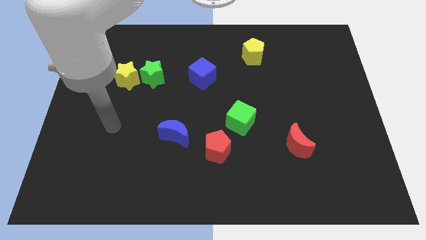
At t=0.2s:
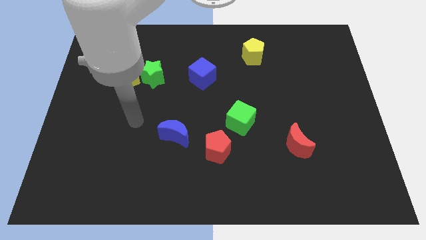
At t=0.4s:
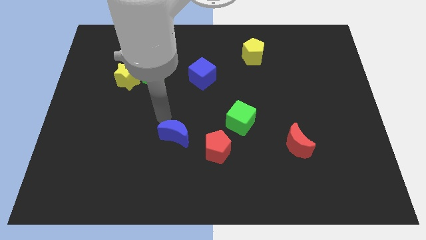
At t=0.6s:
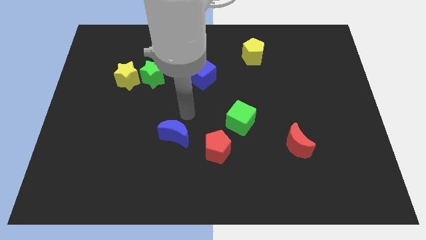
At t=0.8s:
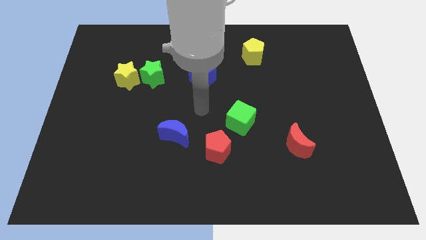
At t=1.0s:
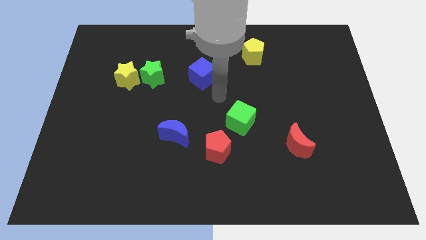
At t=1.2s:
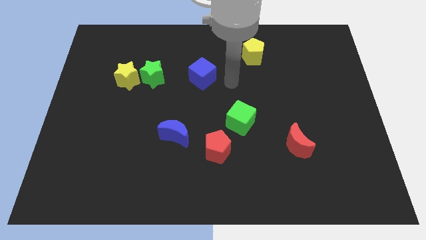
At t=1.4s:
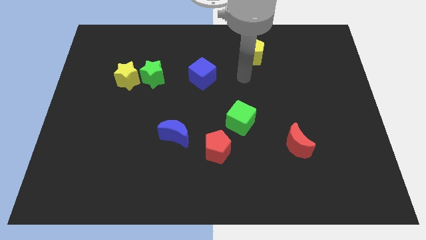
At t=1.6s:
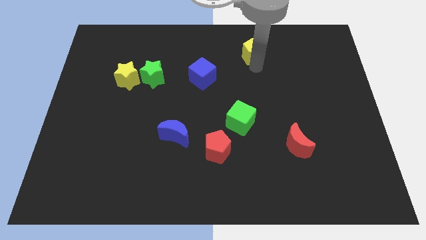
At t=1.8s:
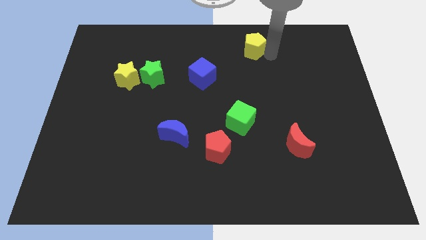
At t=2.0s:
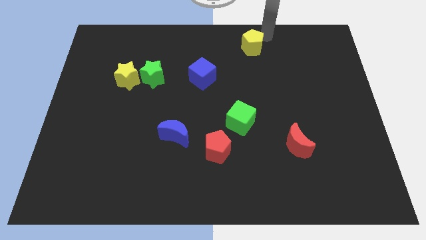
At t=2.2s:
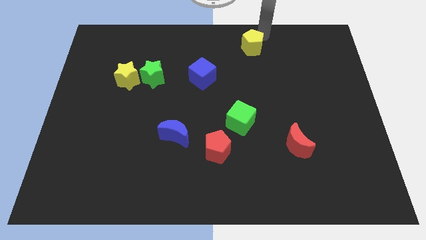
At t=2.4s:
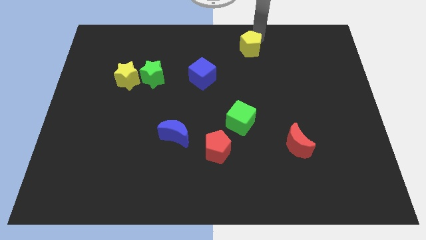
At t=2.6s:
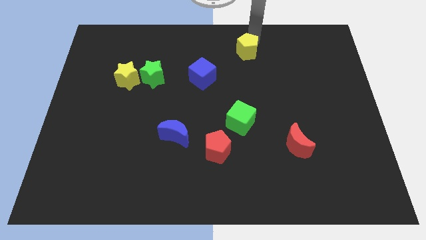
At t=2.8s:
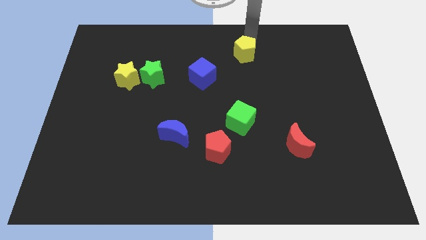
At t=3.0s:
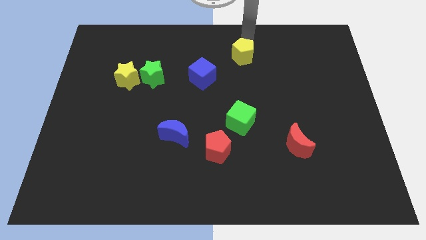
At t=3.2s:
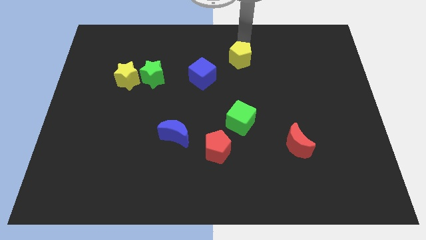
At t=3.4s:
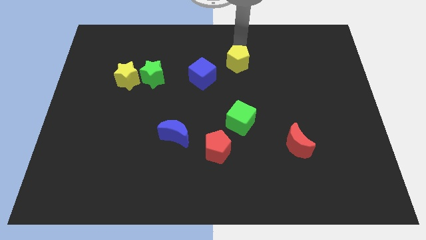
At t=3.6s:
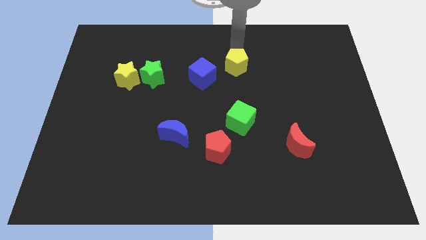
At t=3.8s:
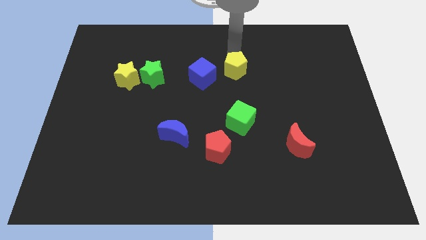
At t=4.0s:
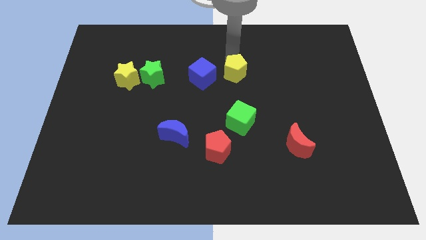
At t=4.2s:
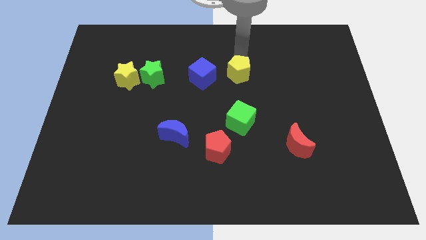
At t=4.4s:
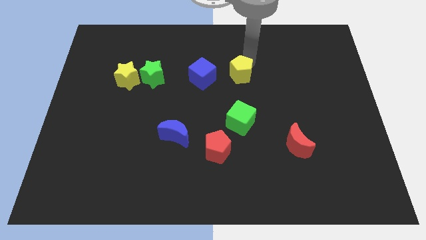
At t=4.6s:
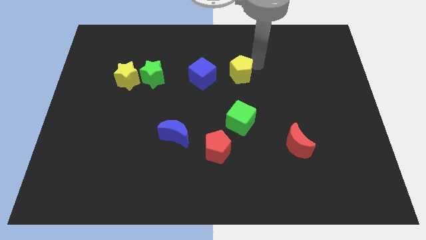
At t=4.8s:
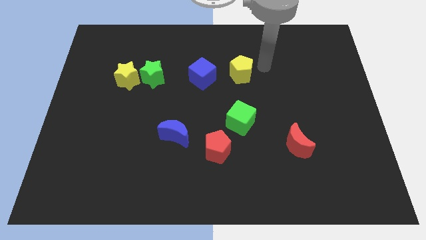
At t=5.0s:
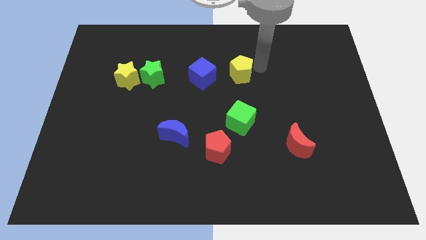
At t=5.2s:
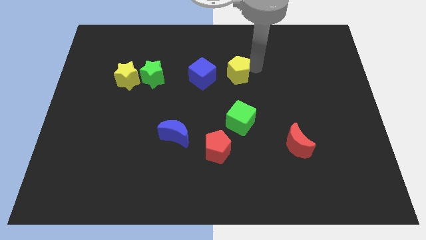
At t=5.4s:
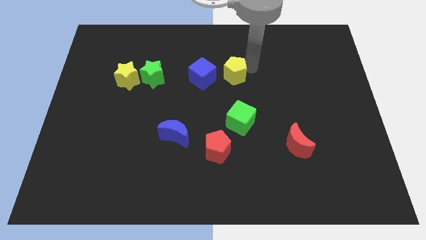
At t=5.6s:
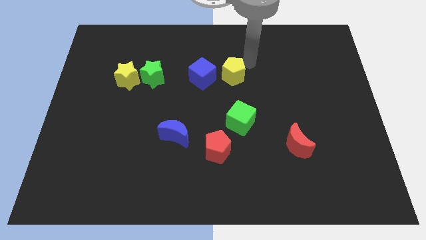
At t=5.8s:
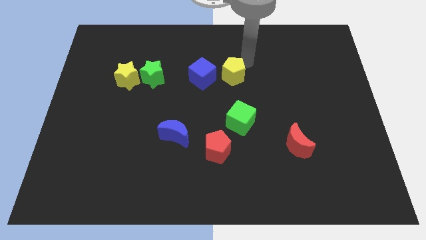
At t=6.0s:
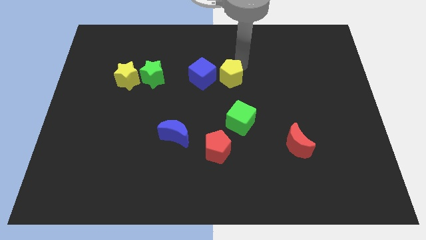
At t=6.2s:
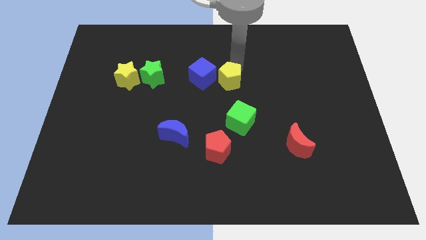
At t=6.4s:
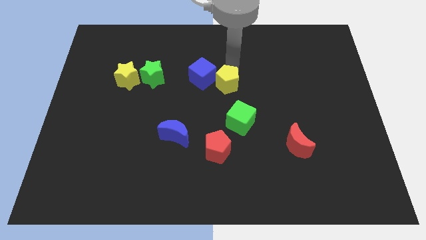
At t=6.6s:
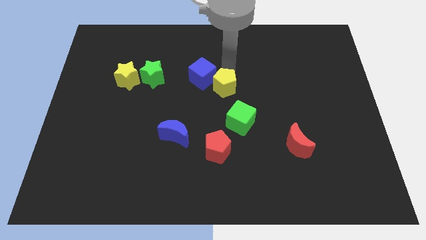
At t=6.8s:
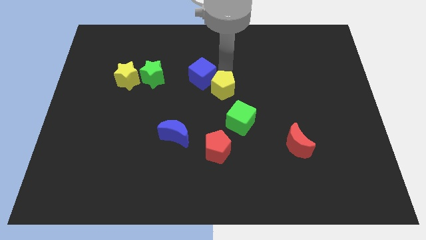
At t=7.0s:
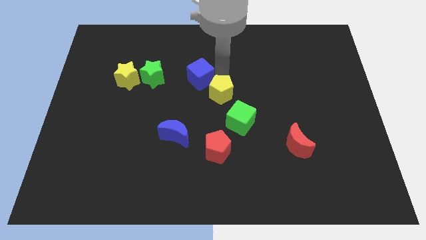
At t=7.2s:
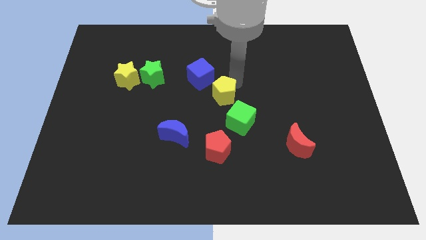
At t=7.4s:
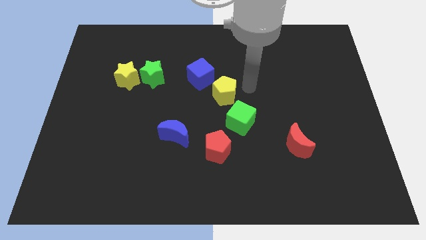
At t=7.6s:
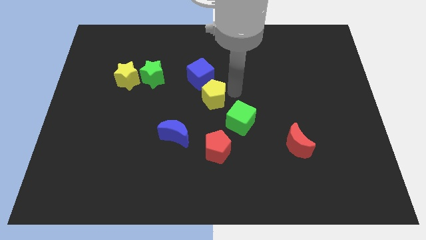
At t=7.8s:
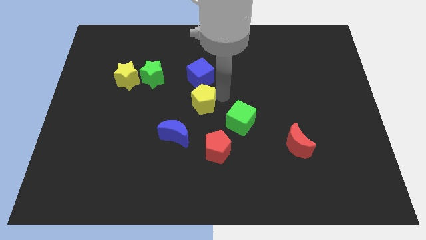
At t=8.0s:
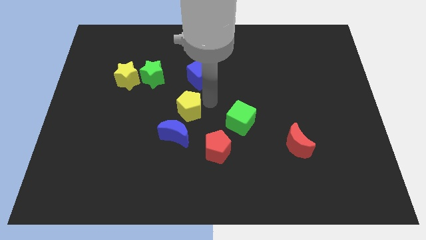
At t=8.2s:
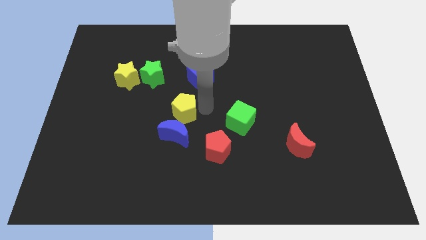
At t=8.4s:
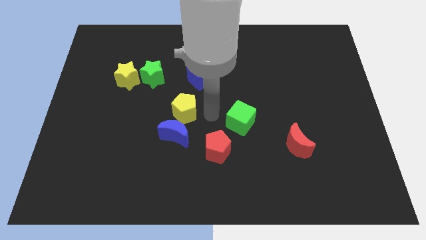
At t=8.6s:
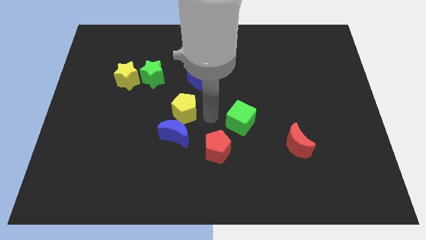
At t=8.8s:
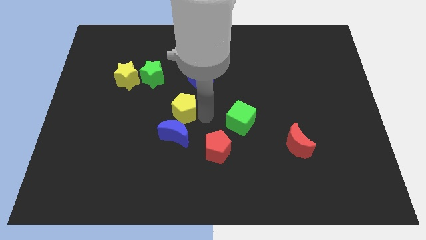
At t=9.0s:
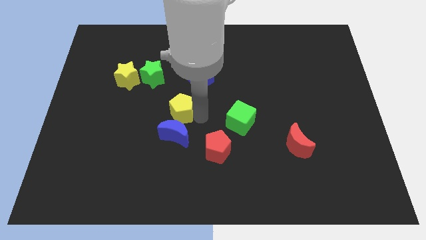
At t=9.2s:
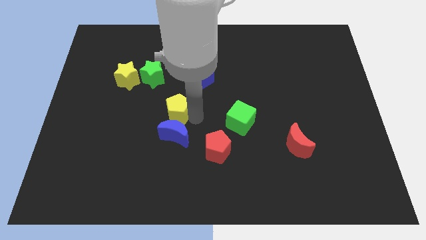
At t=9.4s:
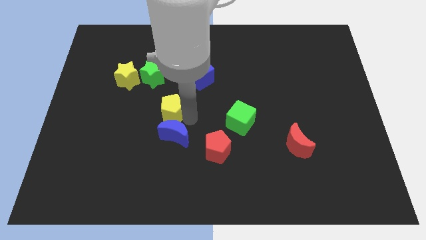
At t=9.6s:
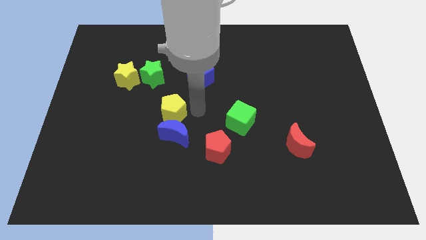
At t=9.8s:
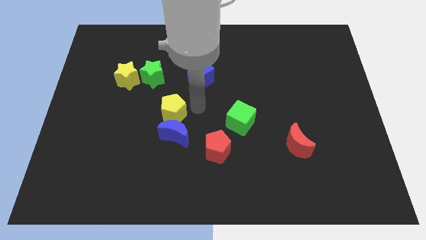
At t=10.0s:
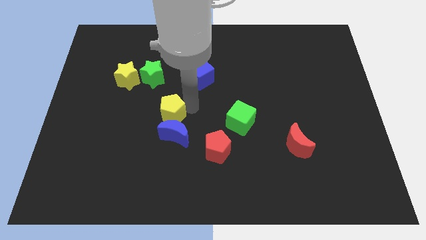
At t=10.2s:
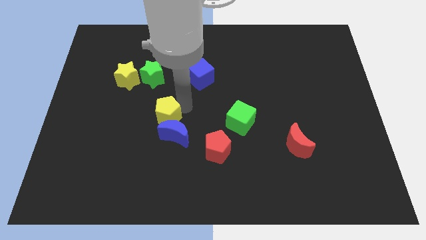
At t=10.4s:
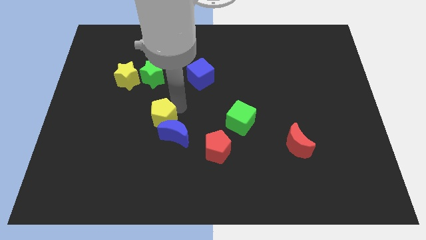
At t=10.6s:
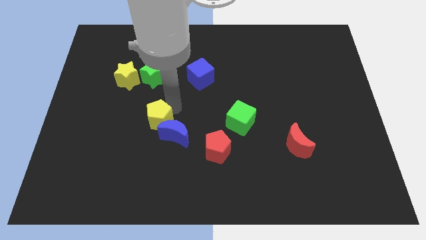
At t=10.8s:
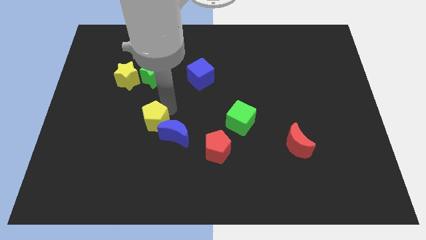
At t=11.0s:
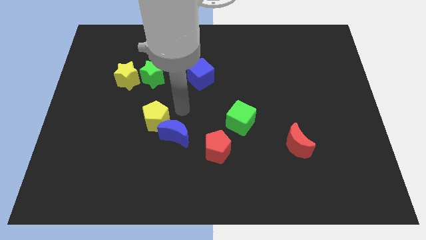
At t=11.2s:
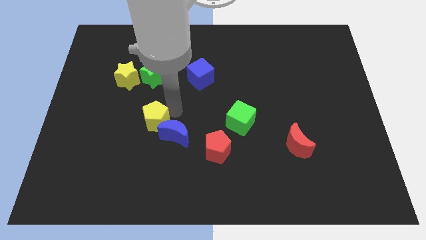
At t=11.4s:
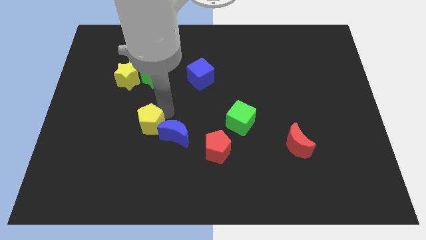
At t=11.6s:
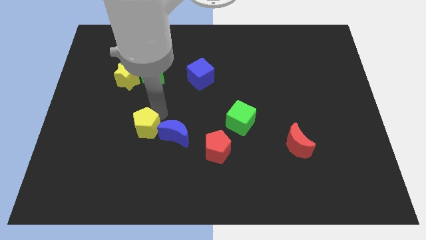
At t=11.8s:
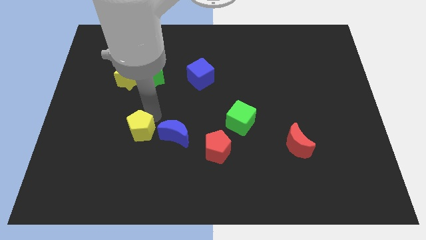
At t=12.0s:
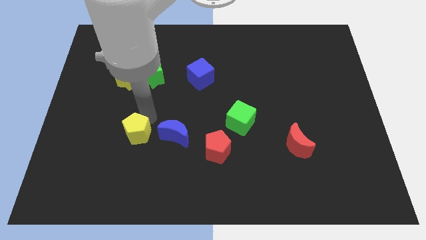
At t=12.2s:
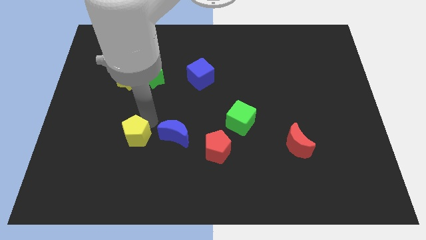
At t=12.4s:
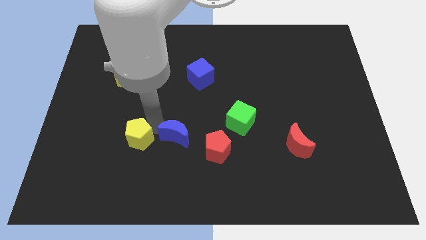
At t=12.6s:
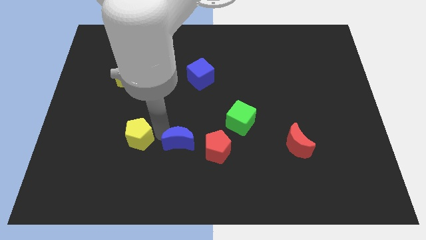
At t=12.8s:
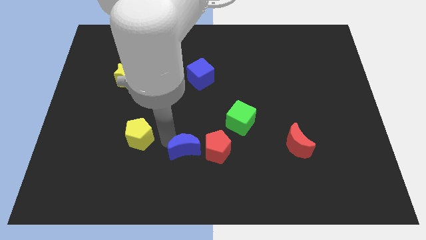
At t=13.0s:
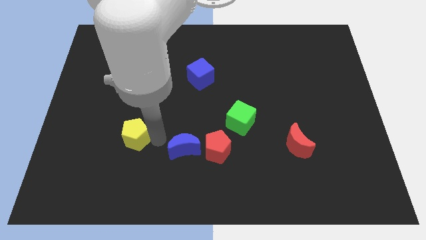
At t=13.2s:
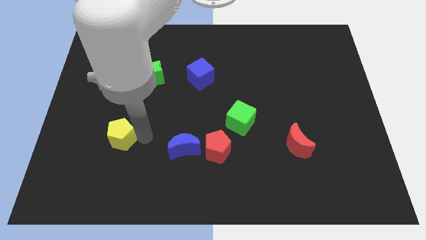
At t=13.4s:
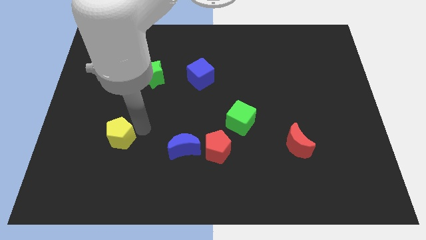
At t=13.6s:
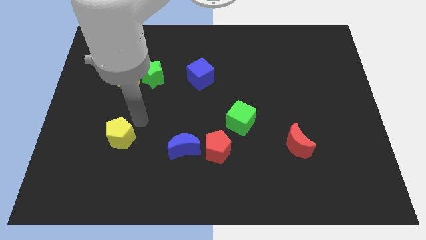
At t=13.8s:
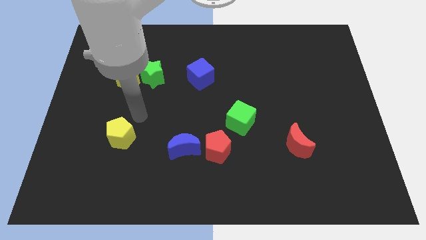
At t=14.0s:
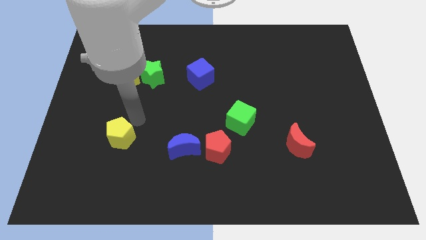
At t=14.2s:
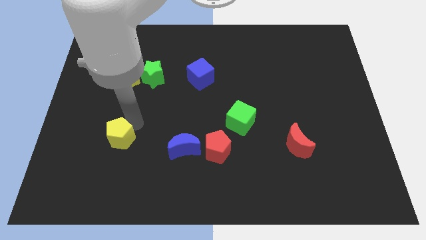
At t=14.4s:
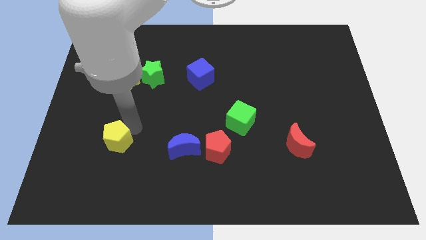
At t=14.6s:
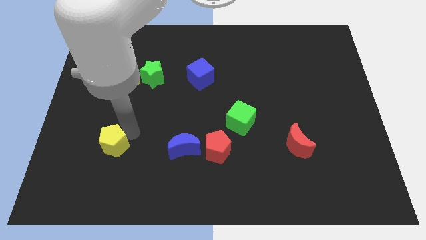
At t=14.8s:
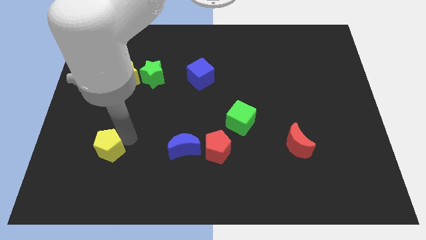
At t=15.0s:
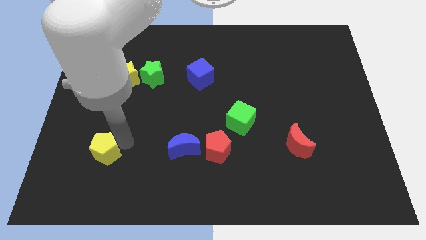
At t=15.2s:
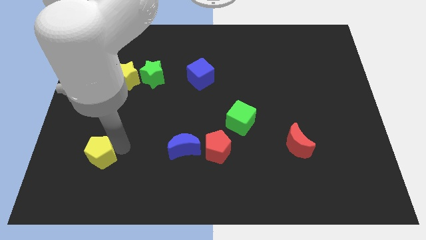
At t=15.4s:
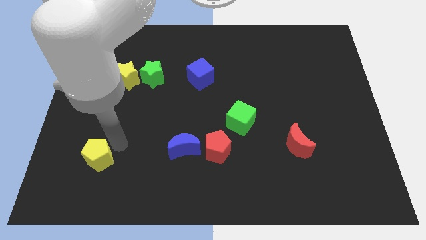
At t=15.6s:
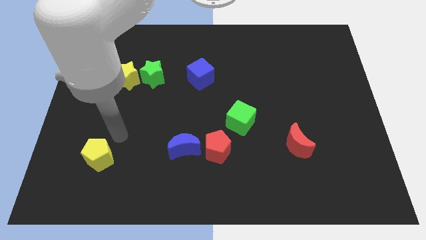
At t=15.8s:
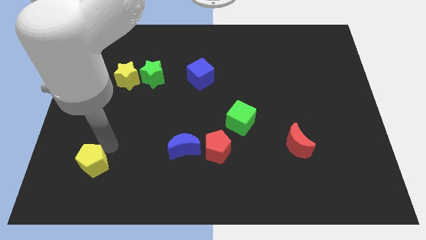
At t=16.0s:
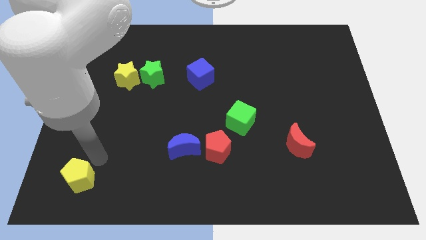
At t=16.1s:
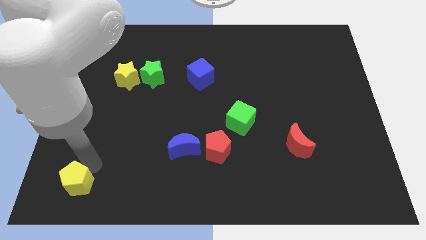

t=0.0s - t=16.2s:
slide the yellow pentagon to the lower left corner
